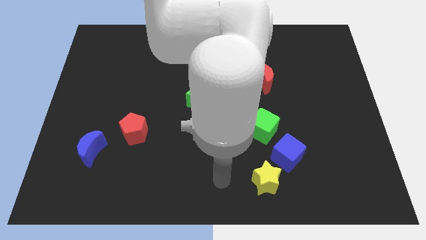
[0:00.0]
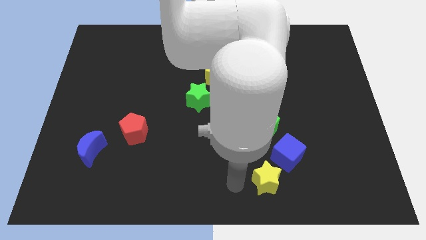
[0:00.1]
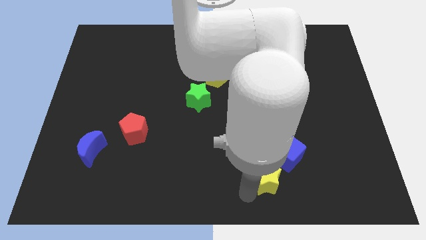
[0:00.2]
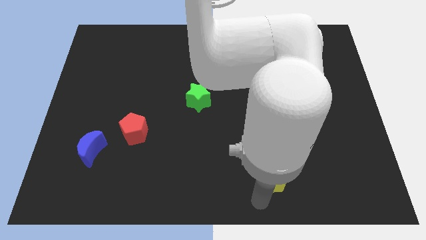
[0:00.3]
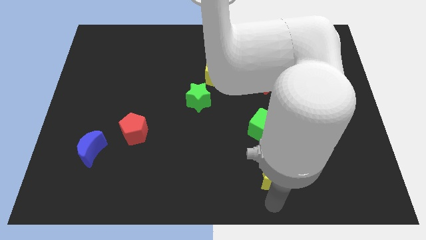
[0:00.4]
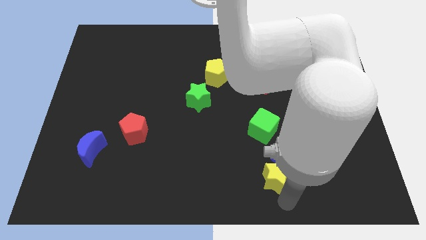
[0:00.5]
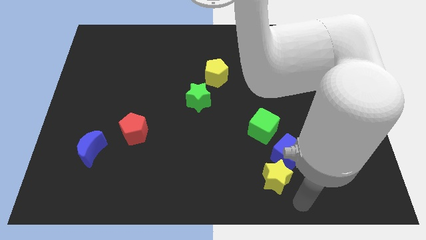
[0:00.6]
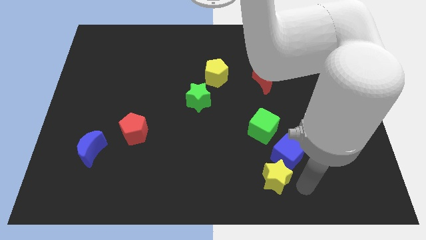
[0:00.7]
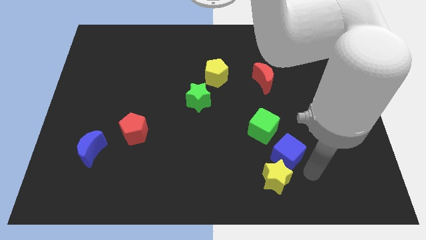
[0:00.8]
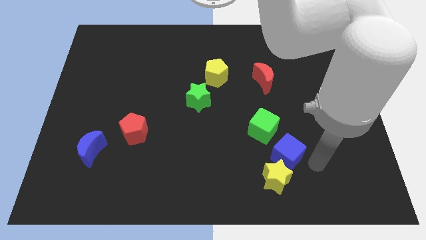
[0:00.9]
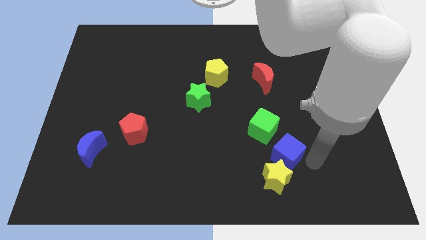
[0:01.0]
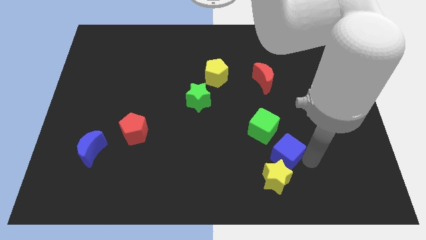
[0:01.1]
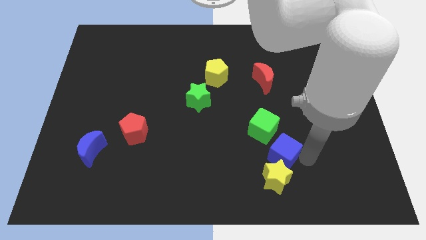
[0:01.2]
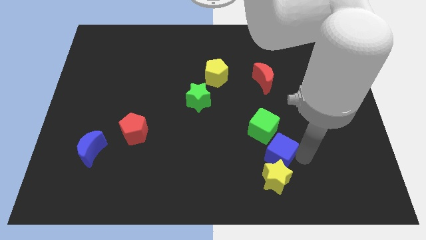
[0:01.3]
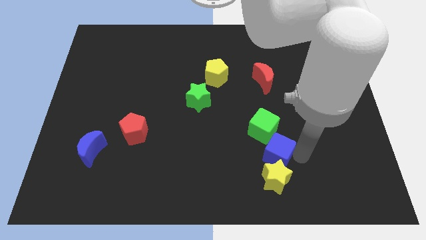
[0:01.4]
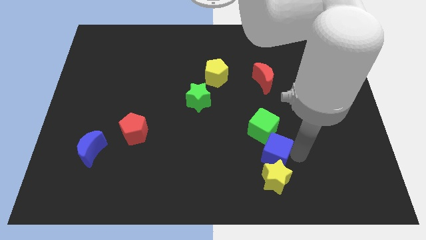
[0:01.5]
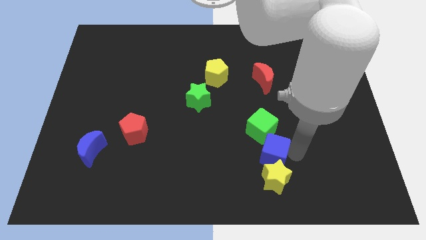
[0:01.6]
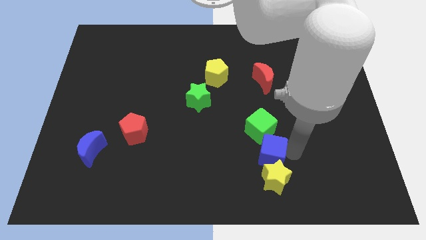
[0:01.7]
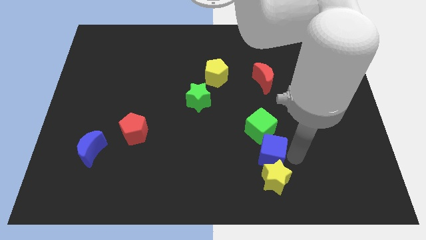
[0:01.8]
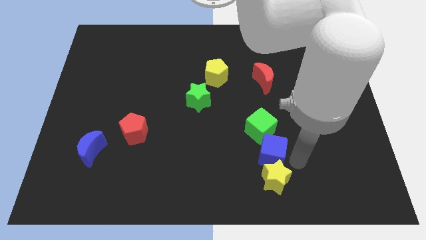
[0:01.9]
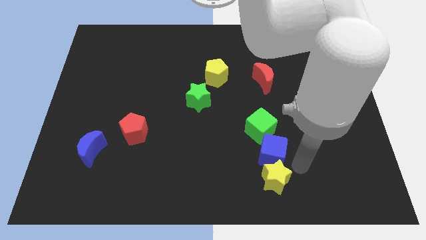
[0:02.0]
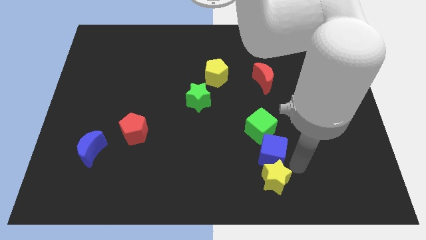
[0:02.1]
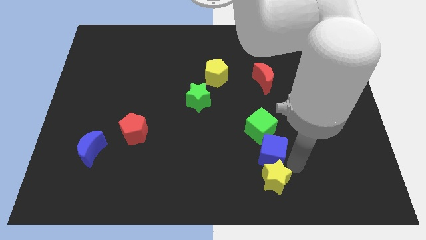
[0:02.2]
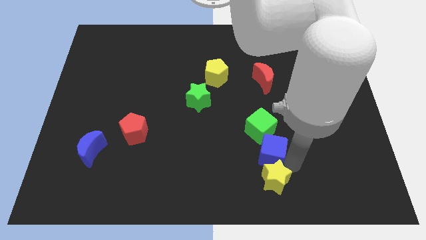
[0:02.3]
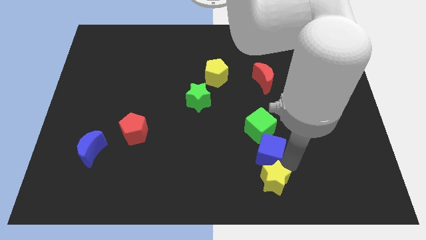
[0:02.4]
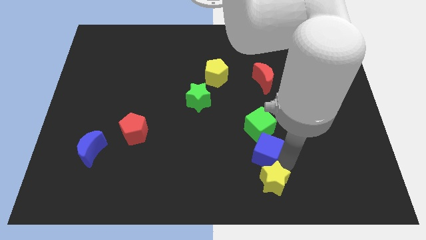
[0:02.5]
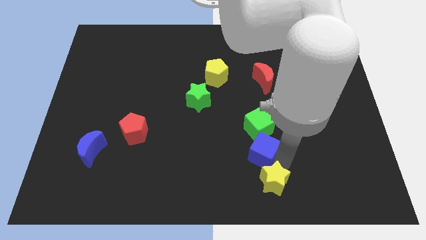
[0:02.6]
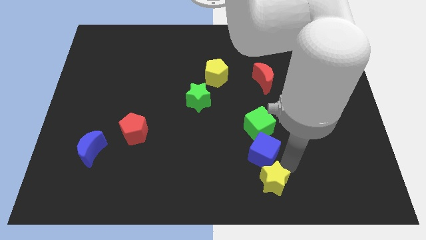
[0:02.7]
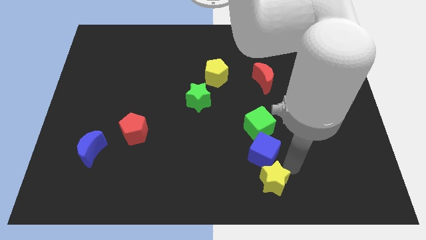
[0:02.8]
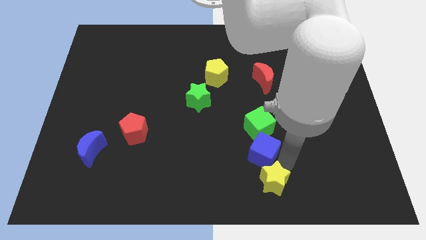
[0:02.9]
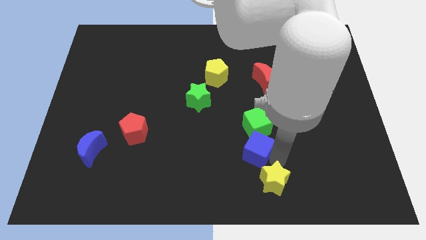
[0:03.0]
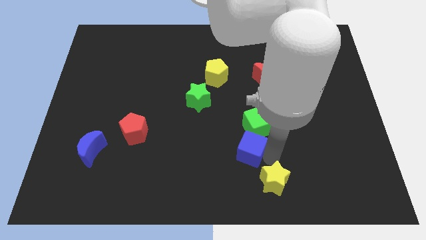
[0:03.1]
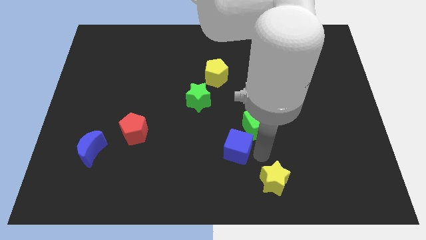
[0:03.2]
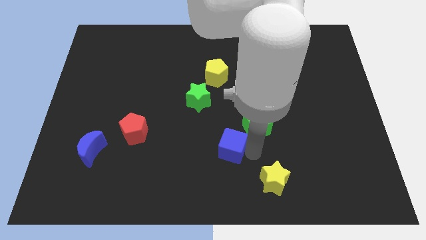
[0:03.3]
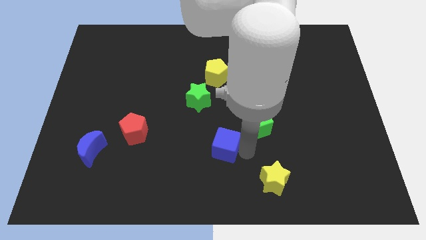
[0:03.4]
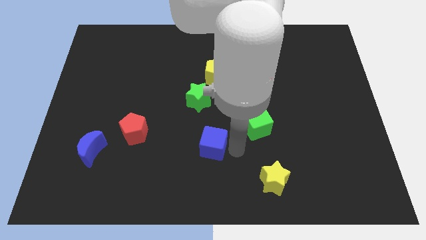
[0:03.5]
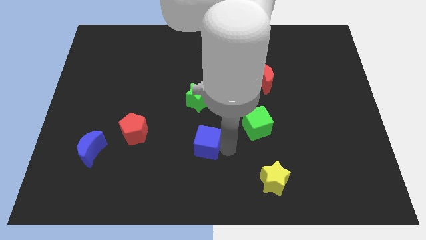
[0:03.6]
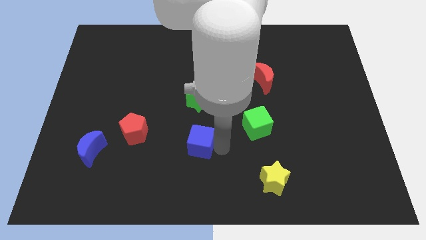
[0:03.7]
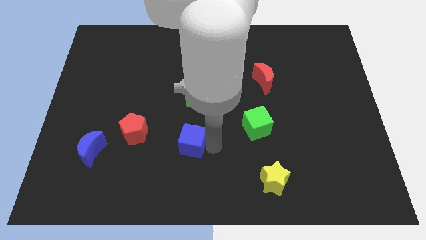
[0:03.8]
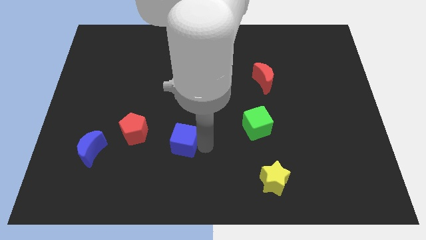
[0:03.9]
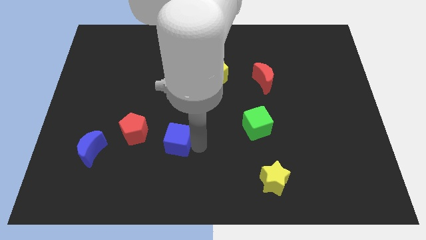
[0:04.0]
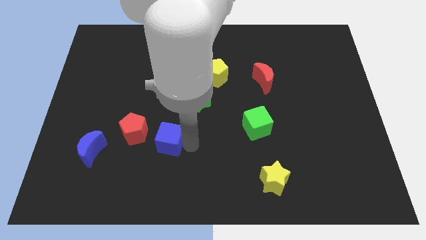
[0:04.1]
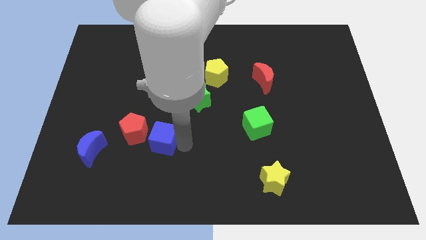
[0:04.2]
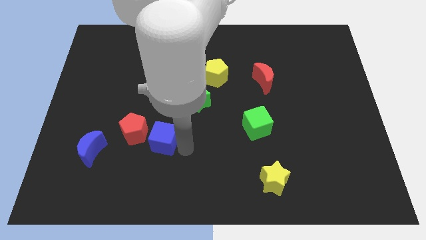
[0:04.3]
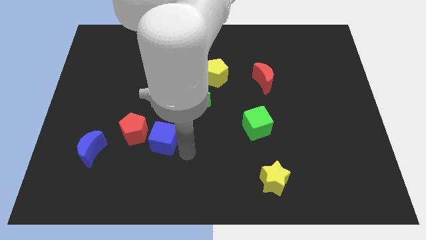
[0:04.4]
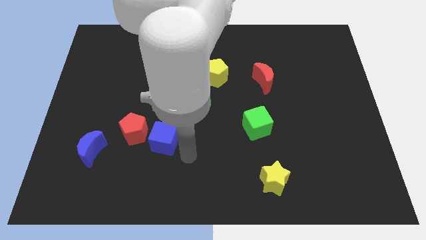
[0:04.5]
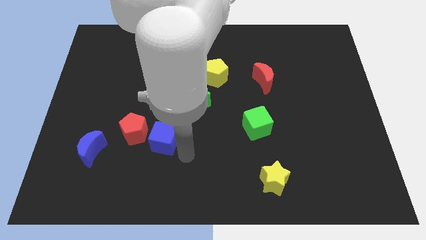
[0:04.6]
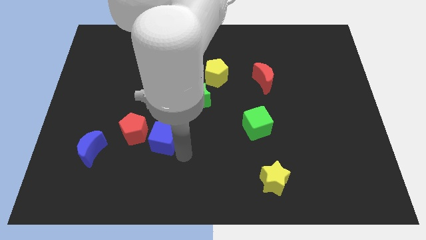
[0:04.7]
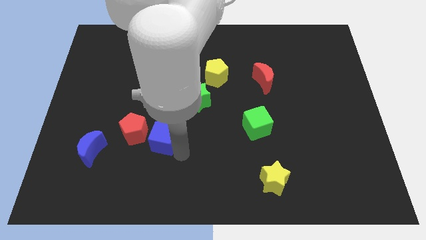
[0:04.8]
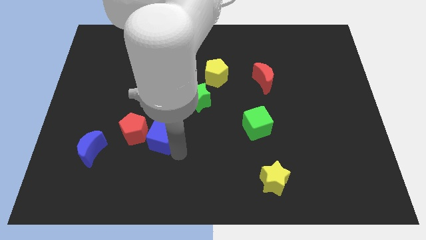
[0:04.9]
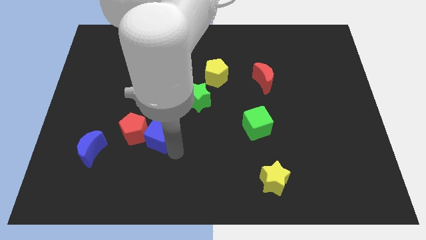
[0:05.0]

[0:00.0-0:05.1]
put the blue cube to the red pentagon

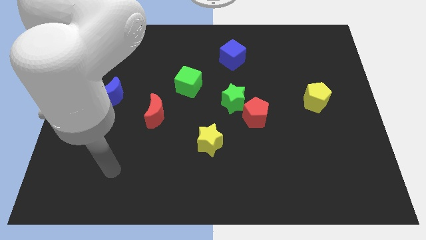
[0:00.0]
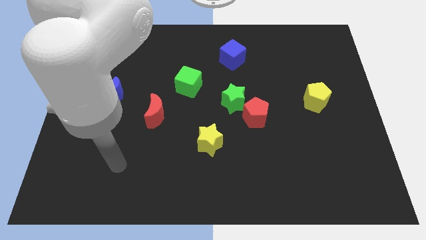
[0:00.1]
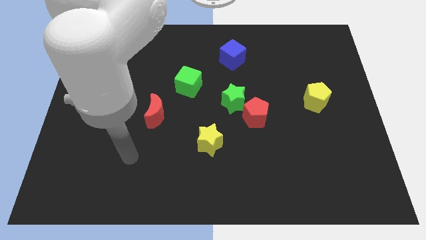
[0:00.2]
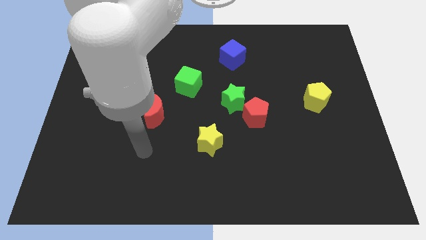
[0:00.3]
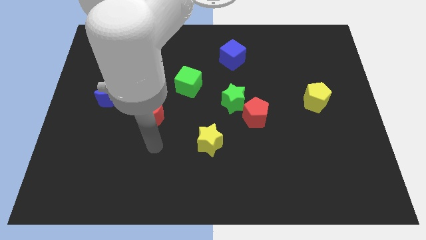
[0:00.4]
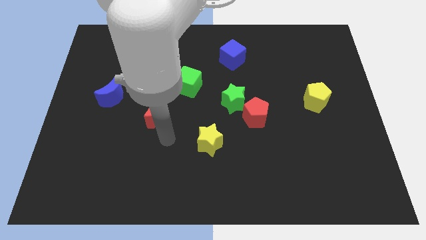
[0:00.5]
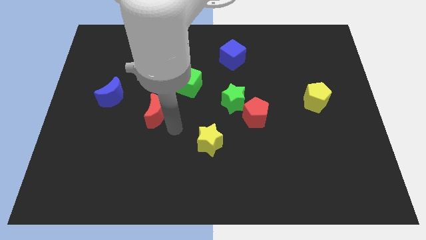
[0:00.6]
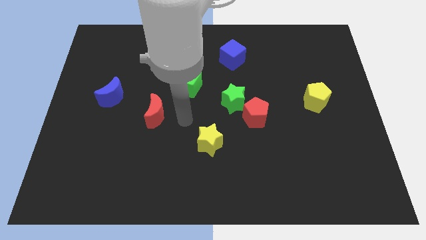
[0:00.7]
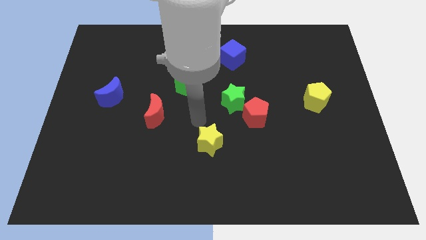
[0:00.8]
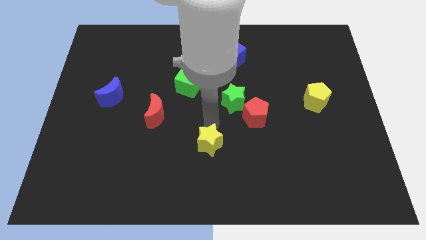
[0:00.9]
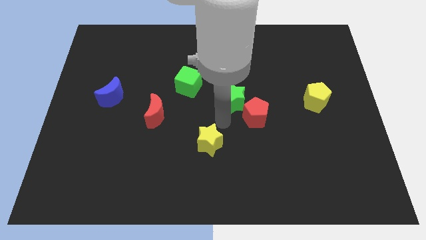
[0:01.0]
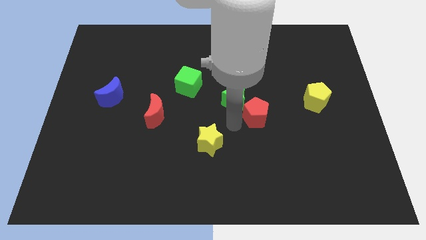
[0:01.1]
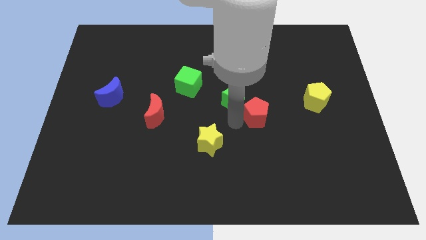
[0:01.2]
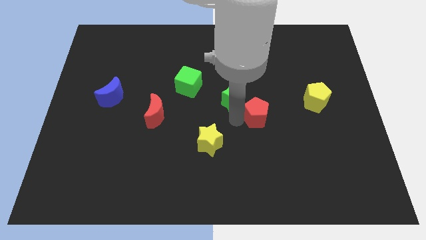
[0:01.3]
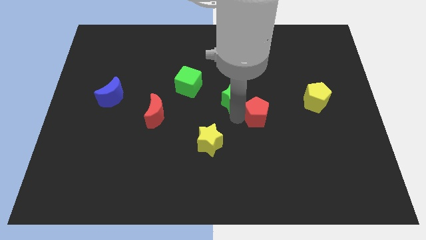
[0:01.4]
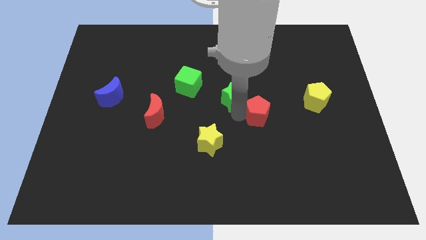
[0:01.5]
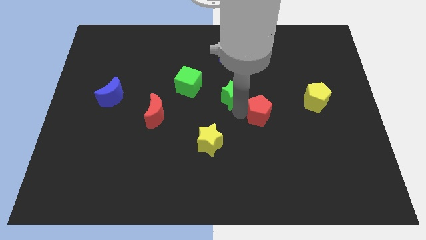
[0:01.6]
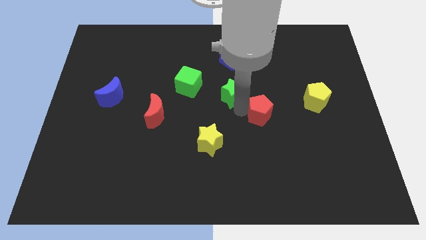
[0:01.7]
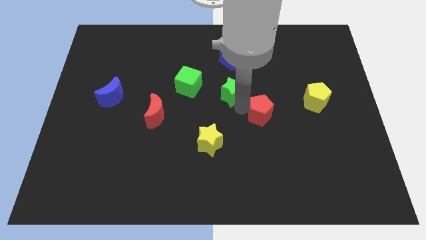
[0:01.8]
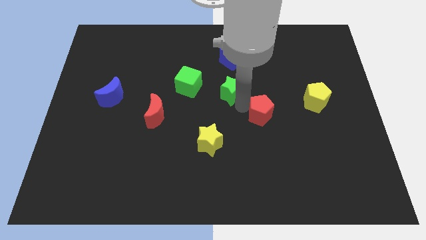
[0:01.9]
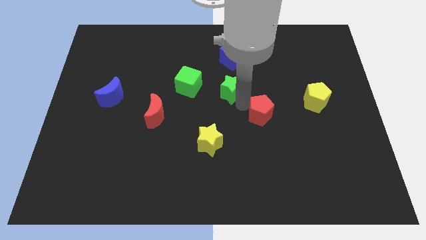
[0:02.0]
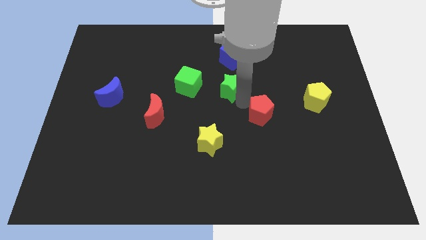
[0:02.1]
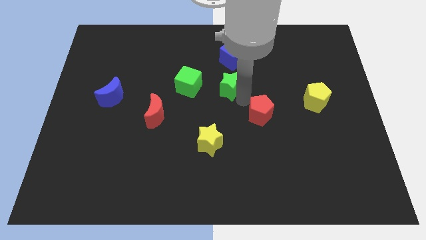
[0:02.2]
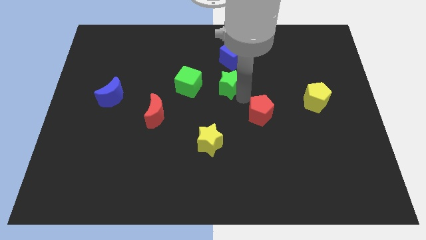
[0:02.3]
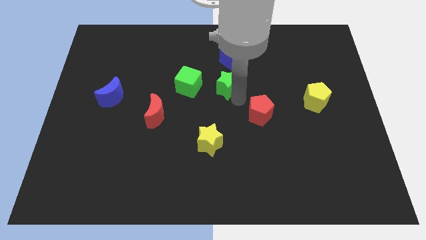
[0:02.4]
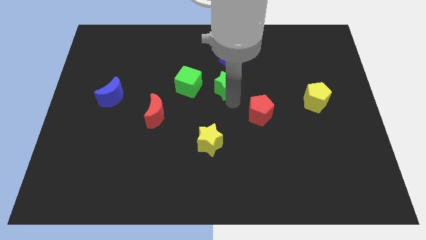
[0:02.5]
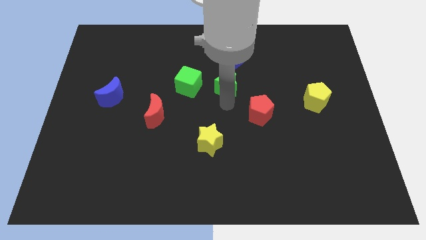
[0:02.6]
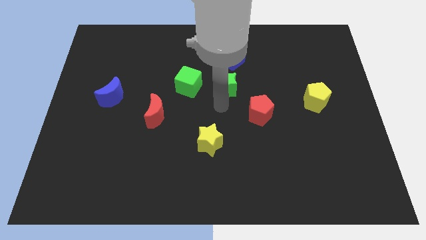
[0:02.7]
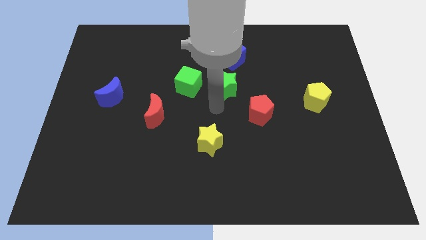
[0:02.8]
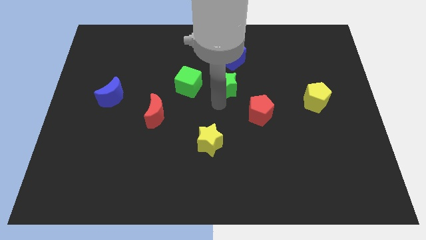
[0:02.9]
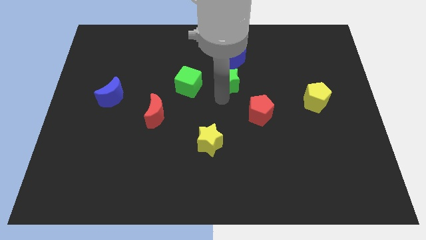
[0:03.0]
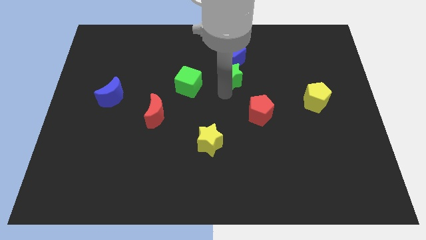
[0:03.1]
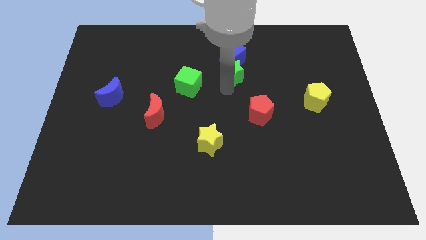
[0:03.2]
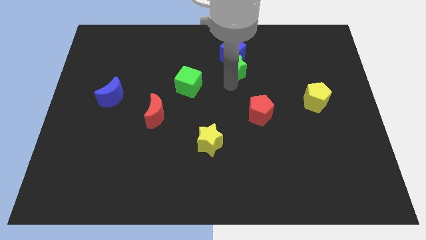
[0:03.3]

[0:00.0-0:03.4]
push the green star to the blue cube
